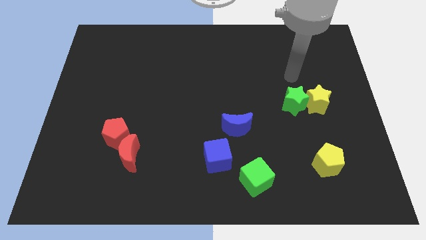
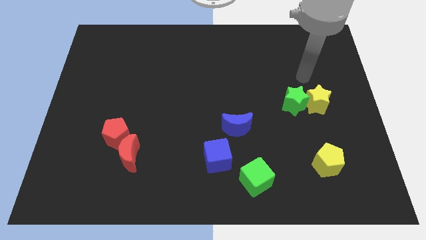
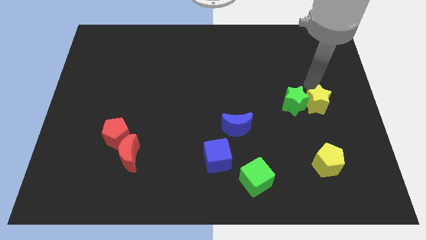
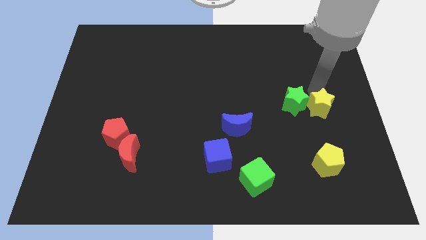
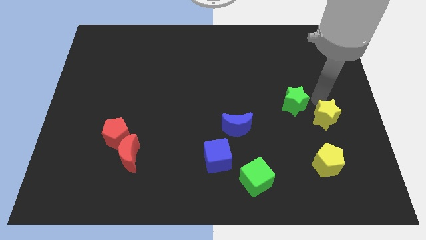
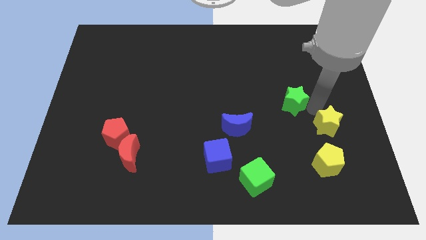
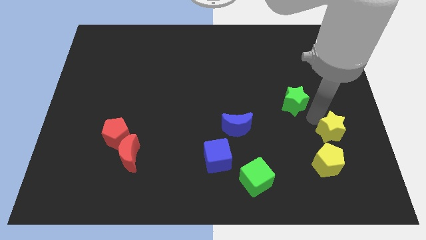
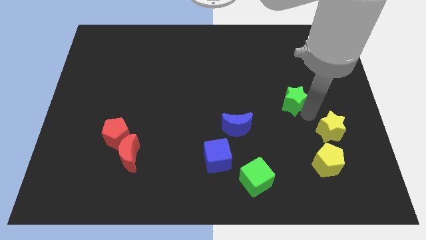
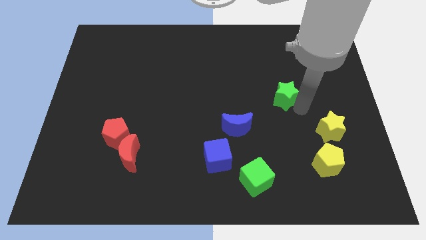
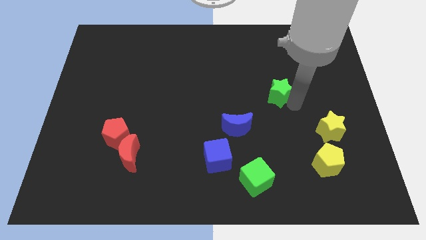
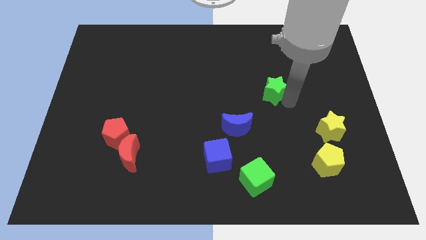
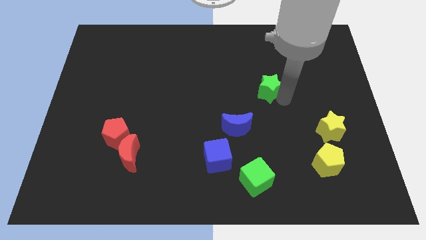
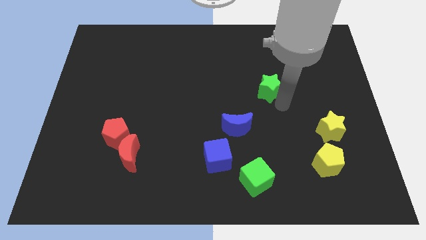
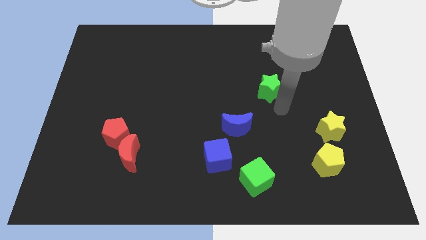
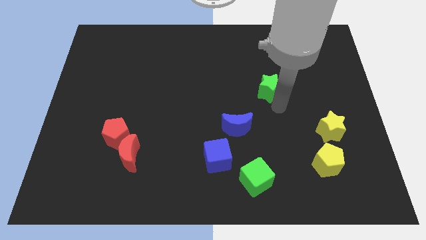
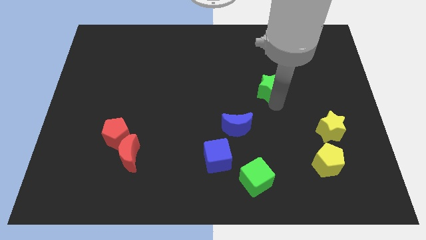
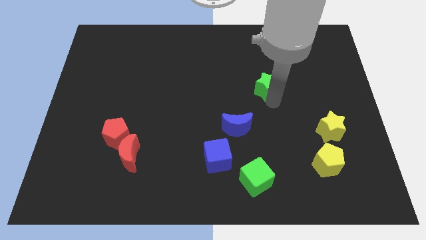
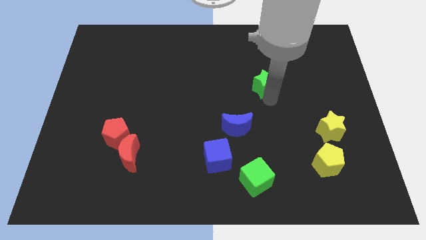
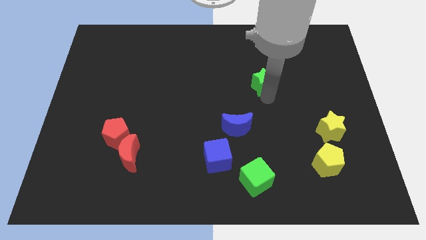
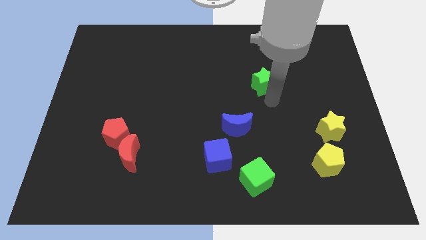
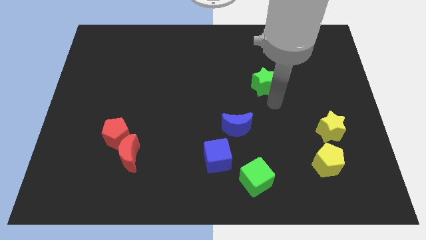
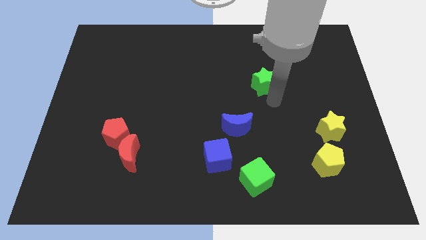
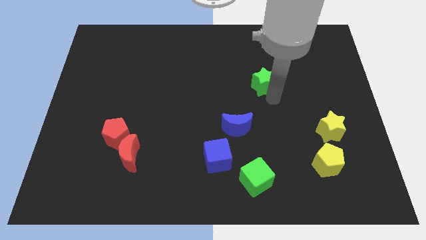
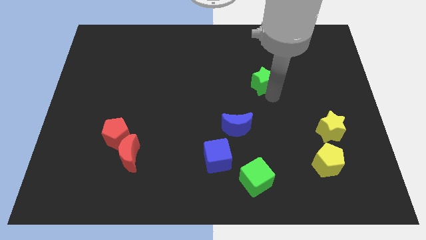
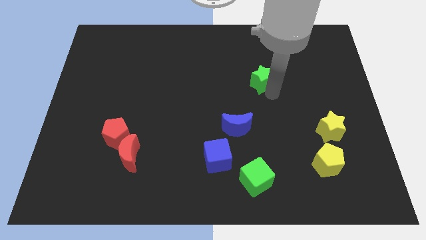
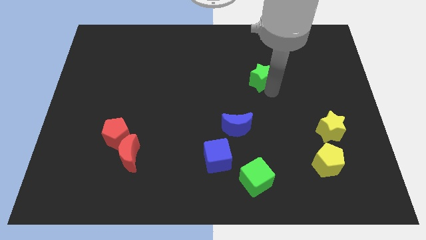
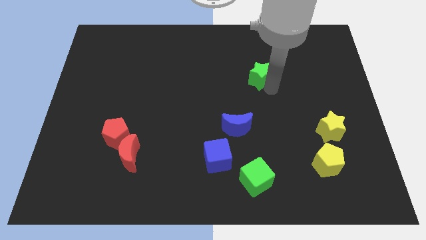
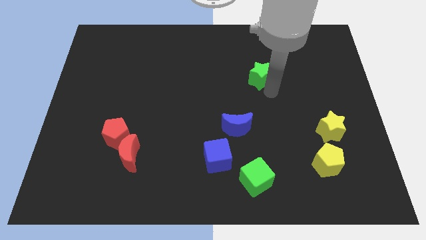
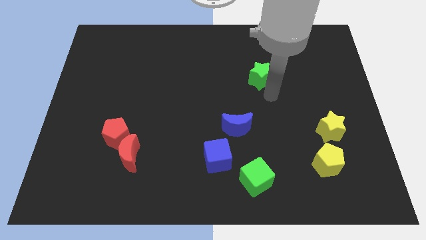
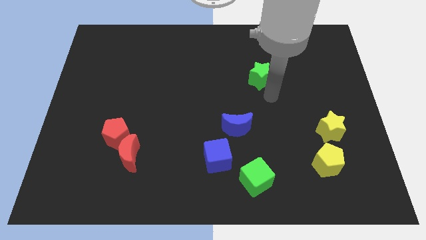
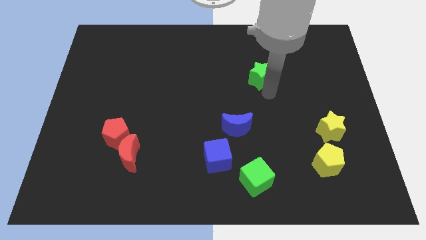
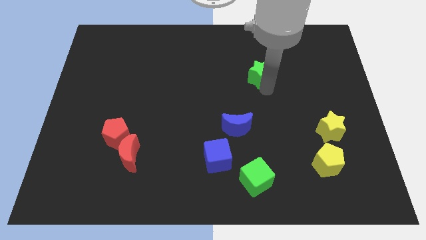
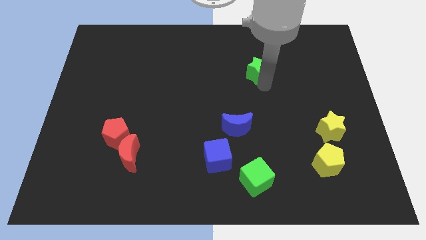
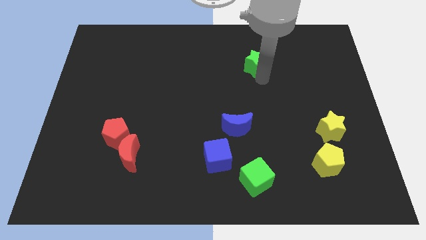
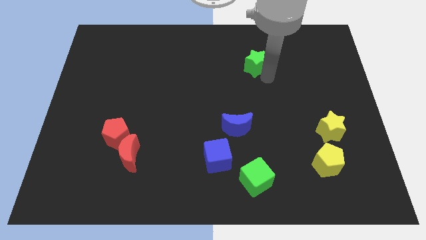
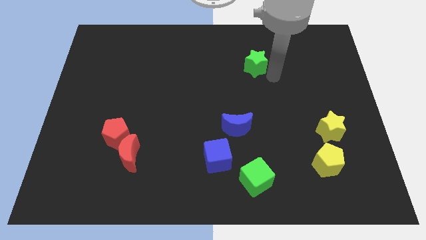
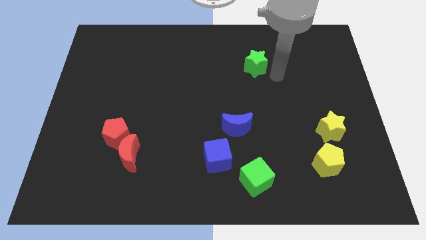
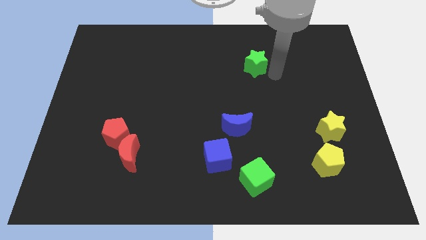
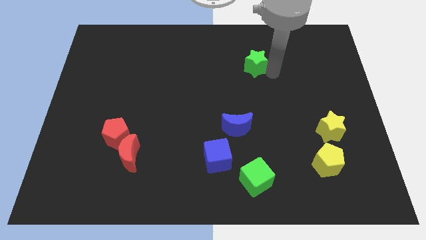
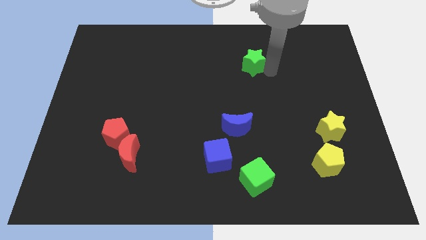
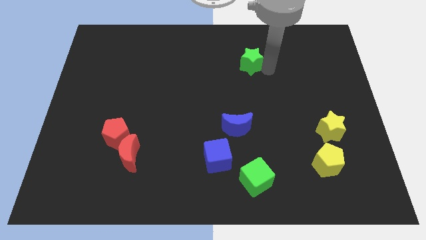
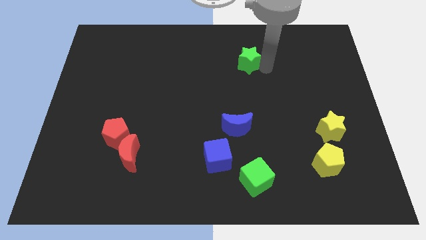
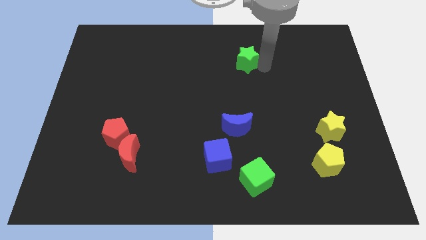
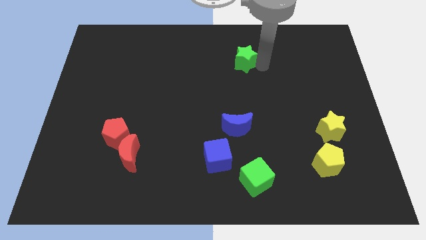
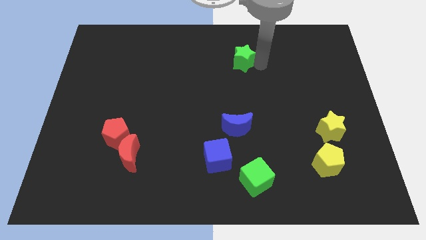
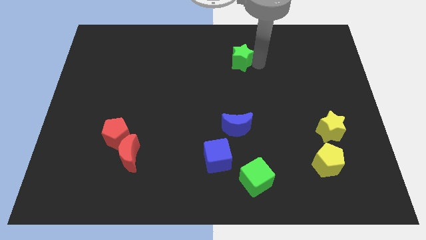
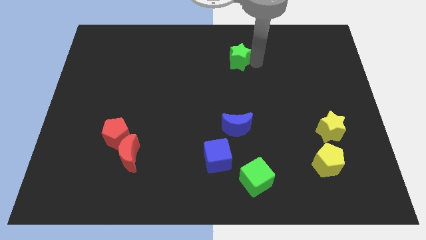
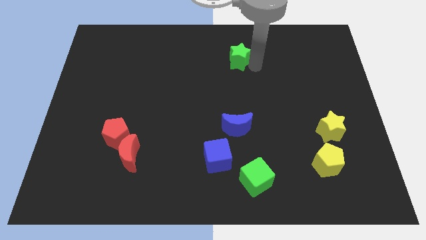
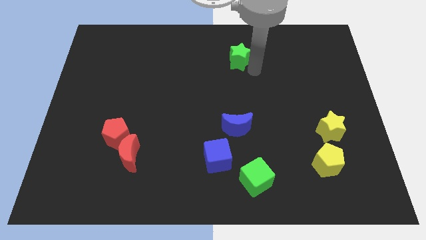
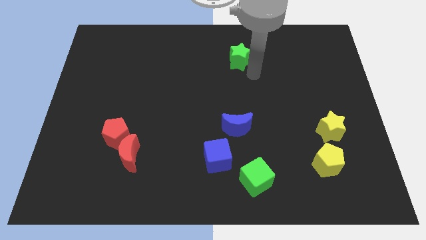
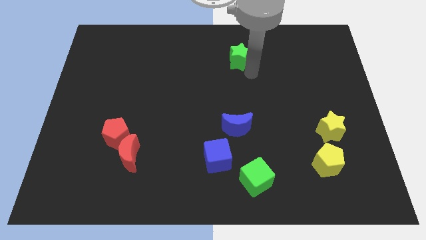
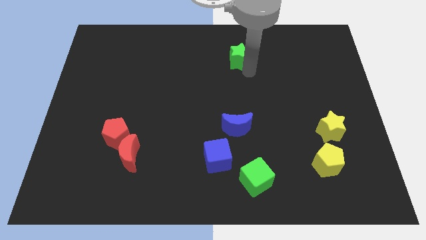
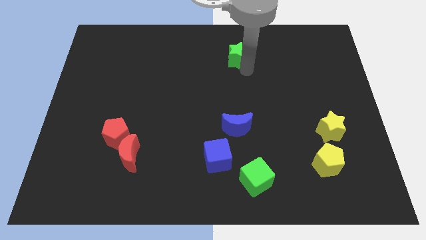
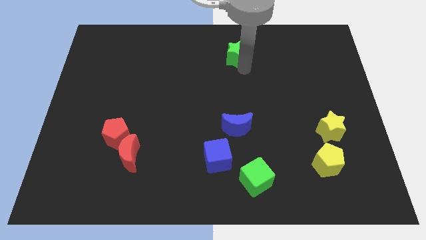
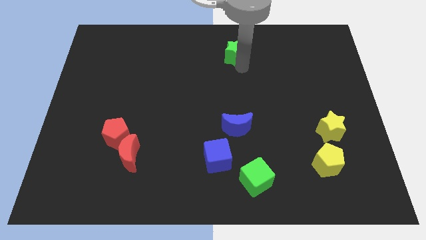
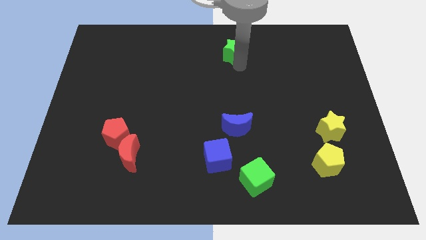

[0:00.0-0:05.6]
slide the green star to the top side
